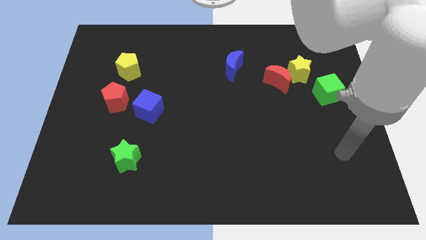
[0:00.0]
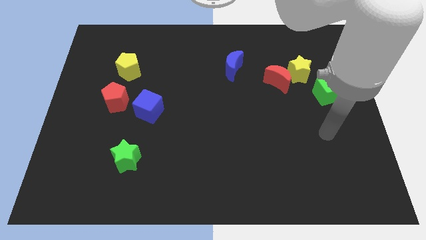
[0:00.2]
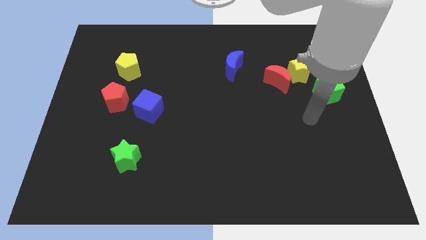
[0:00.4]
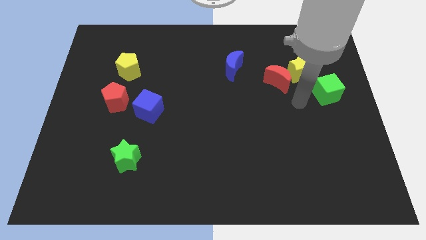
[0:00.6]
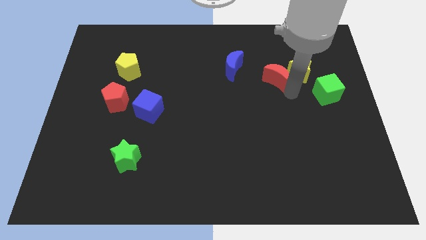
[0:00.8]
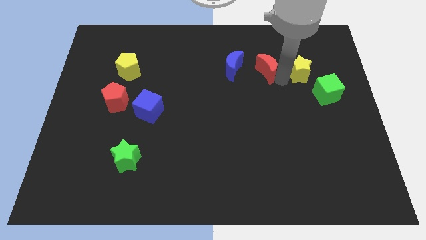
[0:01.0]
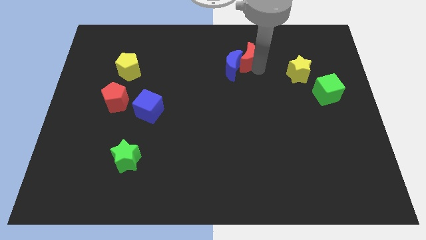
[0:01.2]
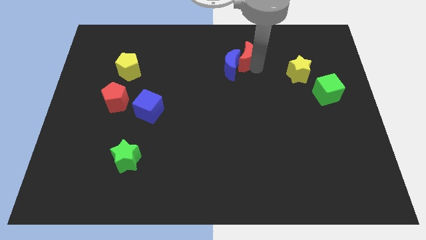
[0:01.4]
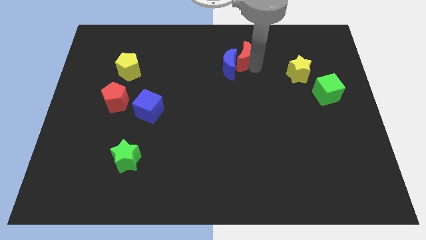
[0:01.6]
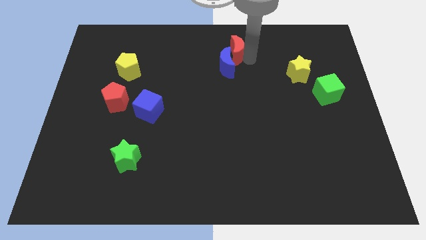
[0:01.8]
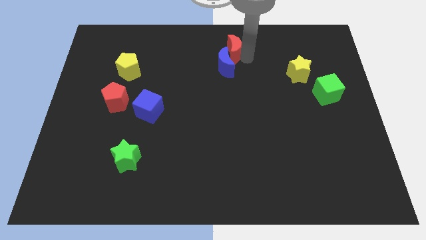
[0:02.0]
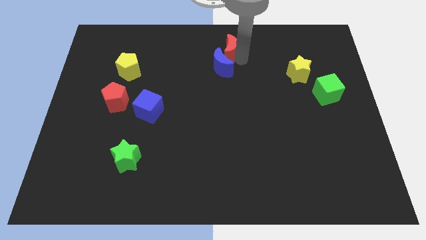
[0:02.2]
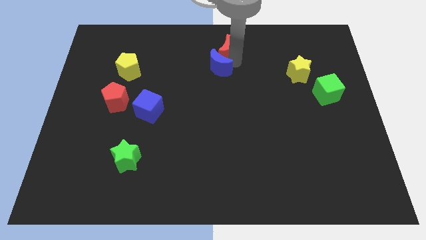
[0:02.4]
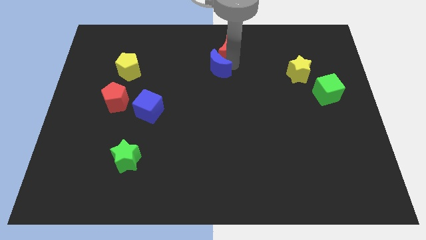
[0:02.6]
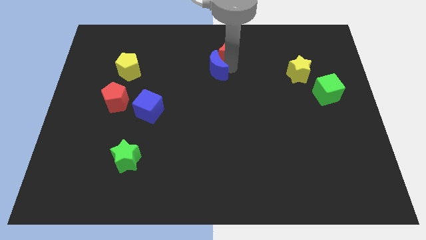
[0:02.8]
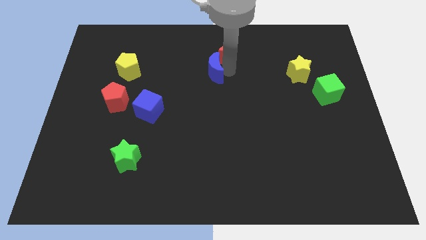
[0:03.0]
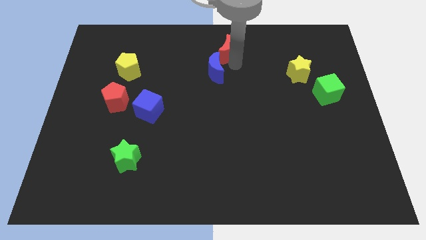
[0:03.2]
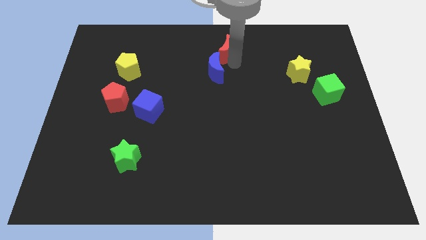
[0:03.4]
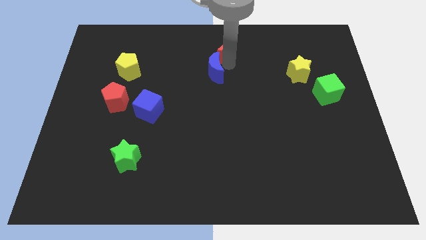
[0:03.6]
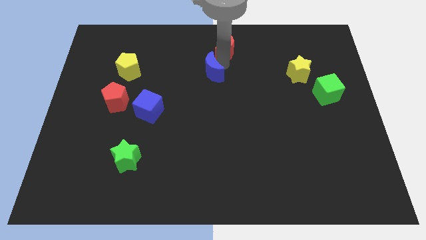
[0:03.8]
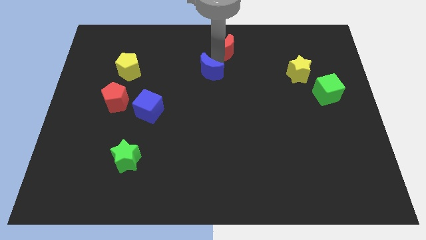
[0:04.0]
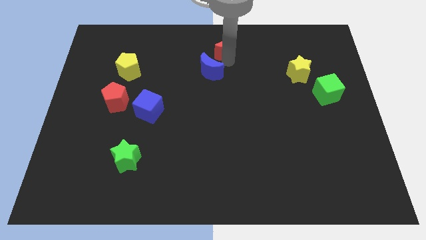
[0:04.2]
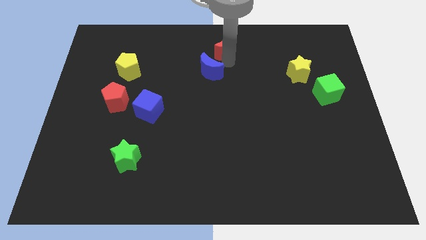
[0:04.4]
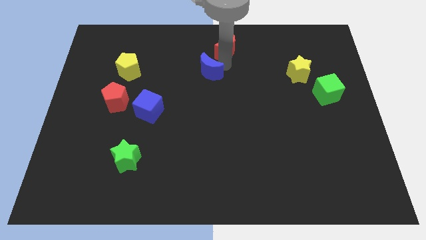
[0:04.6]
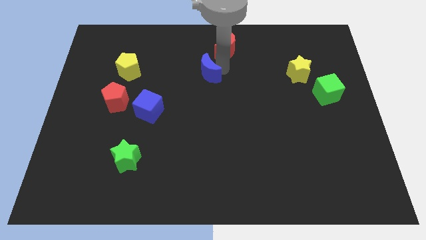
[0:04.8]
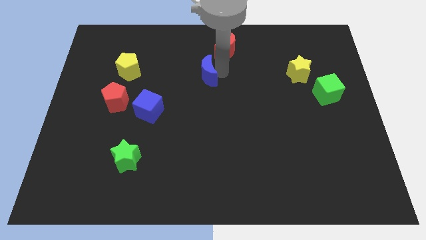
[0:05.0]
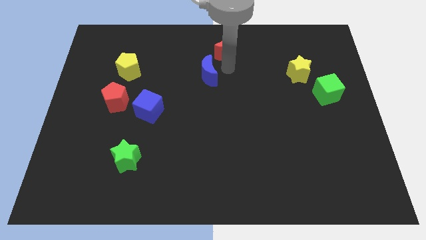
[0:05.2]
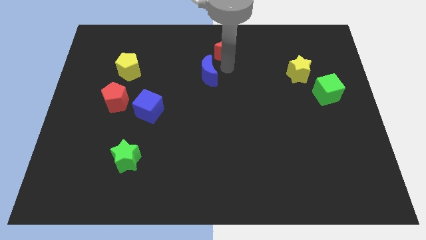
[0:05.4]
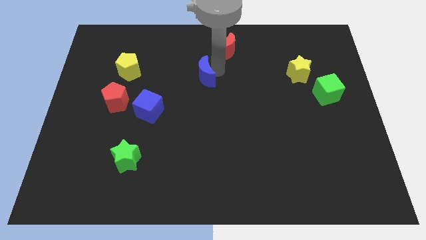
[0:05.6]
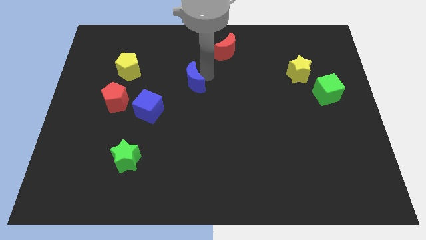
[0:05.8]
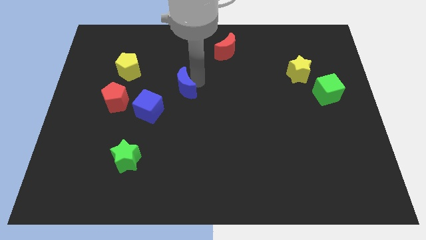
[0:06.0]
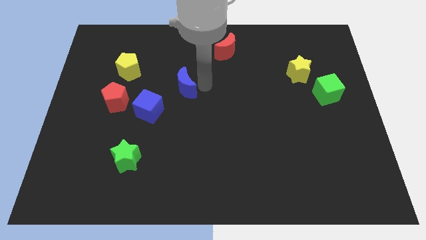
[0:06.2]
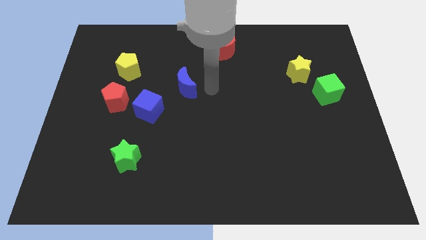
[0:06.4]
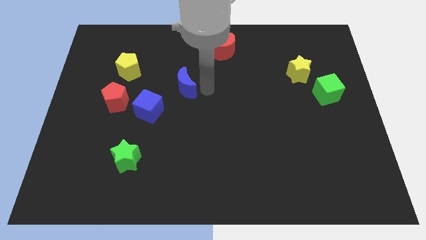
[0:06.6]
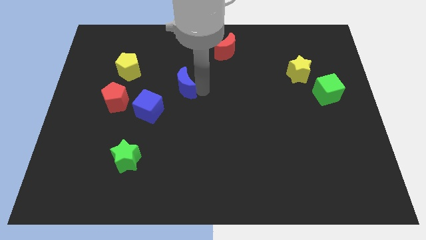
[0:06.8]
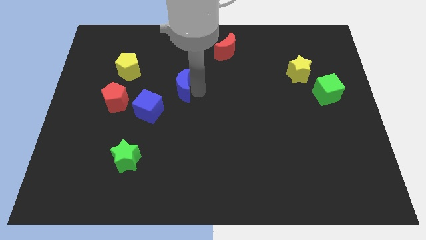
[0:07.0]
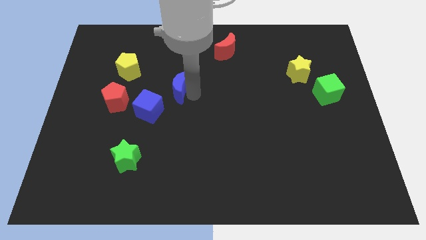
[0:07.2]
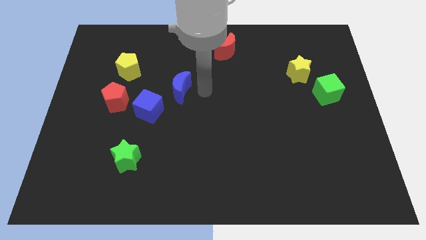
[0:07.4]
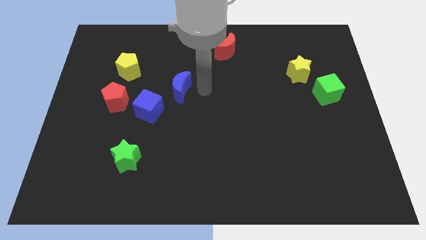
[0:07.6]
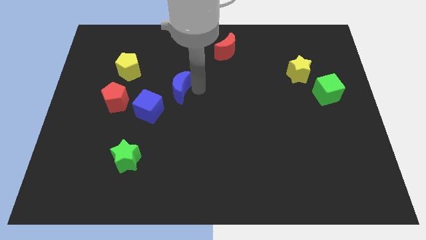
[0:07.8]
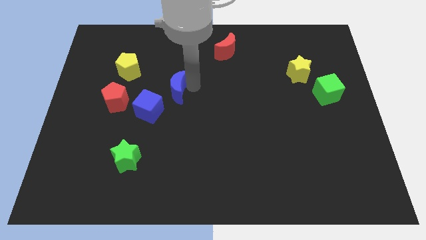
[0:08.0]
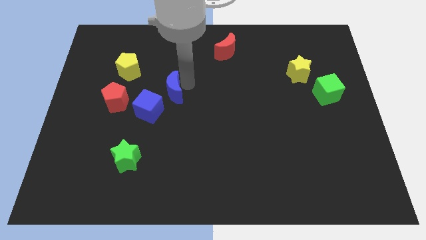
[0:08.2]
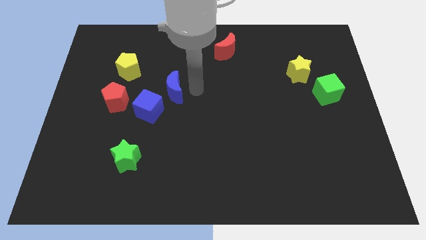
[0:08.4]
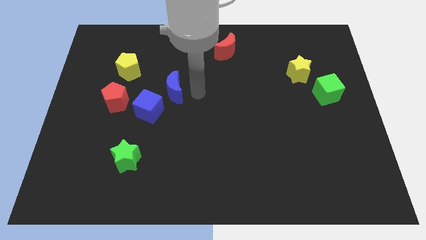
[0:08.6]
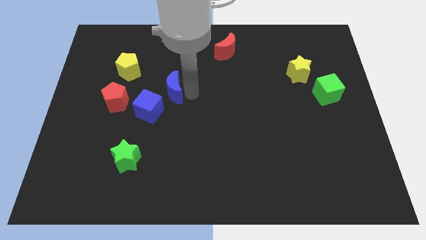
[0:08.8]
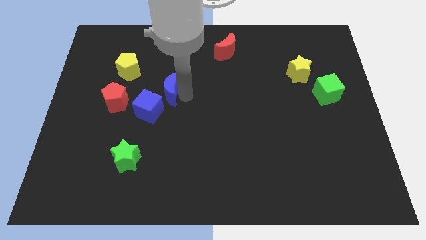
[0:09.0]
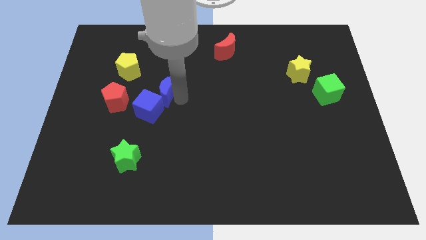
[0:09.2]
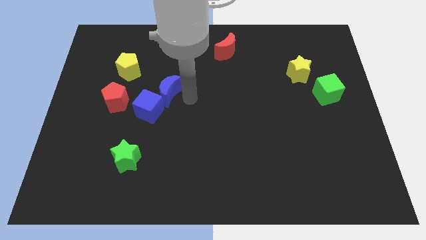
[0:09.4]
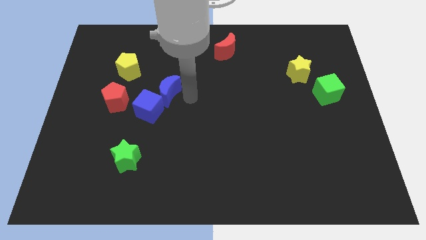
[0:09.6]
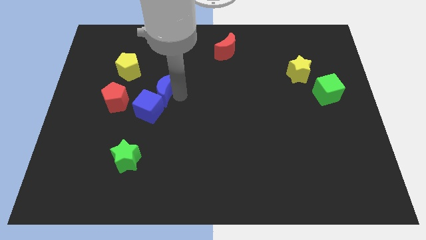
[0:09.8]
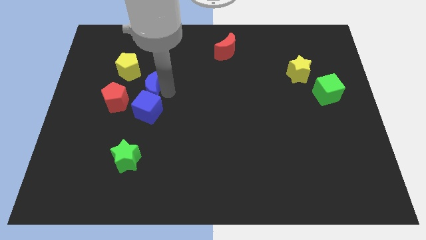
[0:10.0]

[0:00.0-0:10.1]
move the blue moon diagonally up and to the left of the blue cube

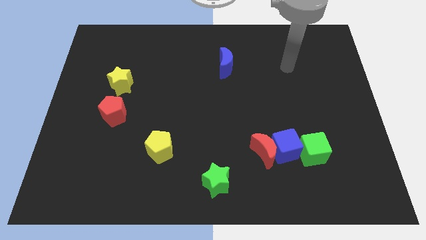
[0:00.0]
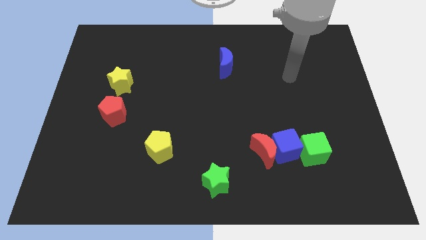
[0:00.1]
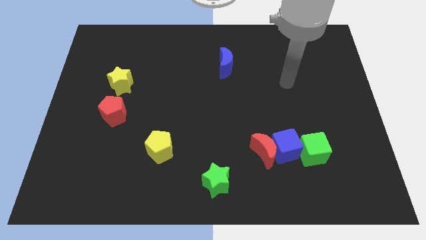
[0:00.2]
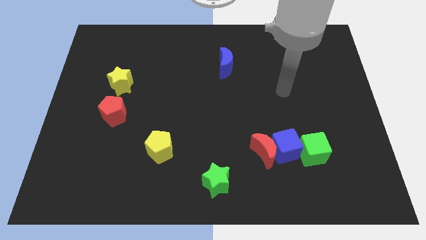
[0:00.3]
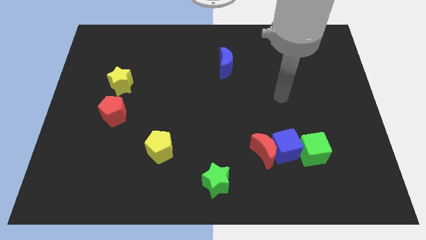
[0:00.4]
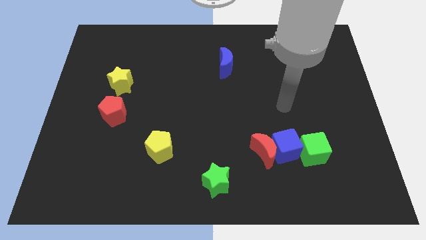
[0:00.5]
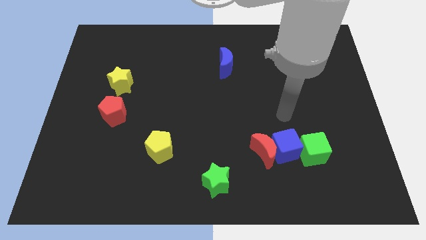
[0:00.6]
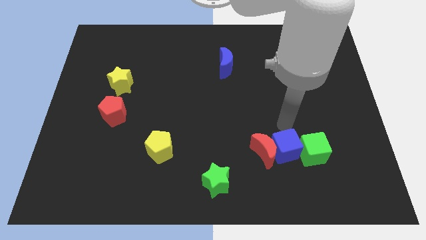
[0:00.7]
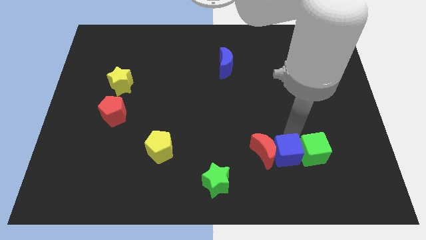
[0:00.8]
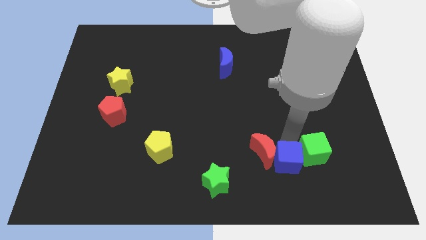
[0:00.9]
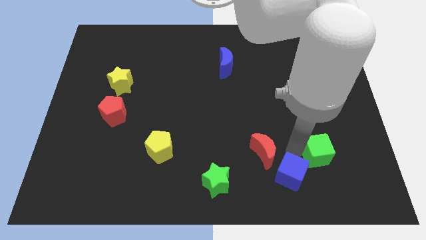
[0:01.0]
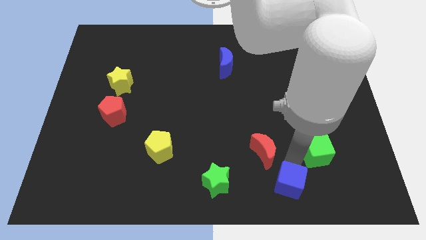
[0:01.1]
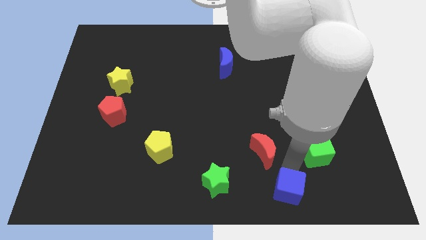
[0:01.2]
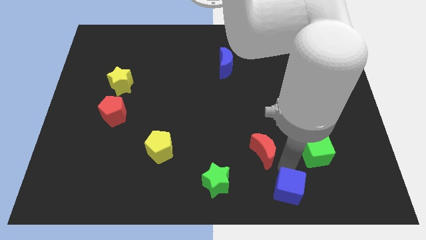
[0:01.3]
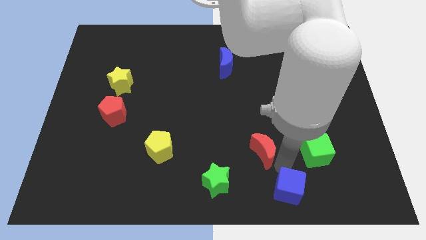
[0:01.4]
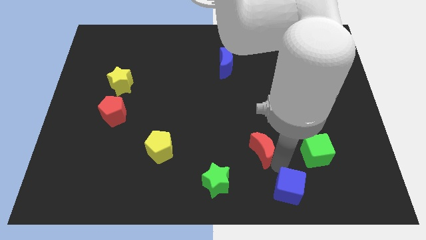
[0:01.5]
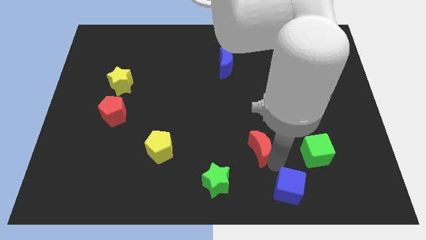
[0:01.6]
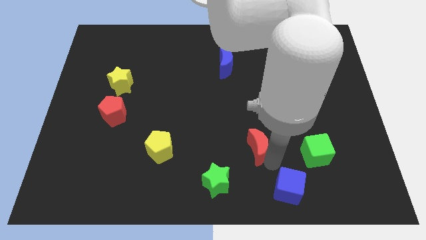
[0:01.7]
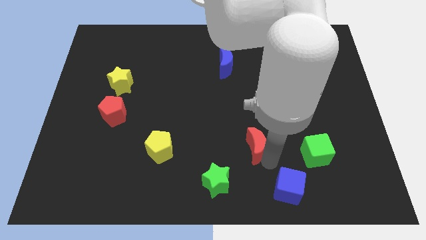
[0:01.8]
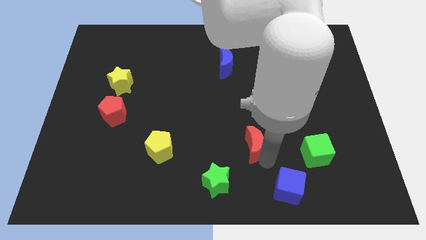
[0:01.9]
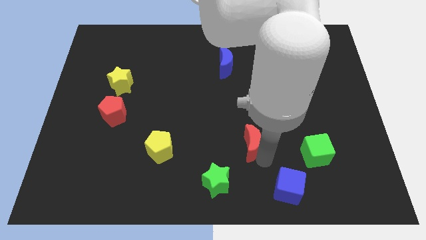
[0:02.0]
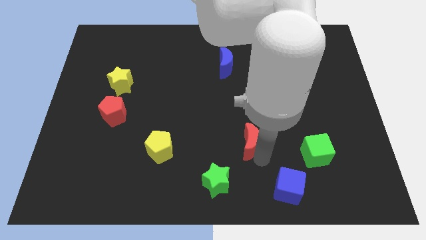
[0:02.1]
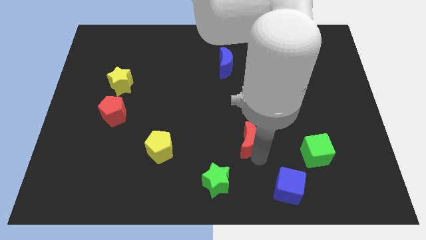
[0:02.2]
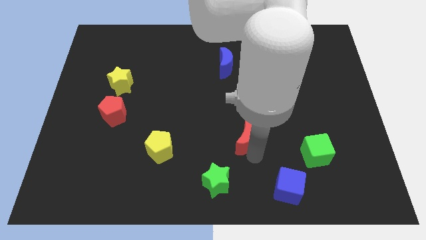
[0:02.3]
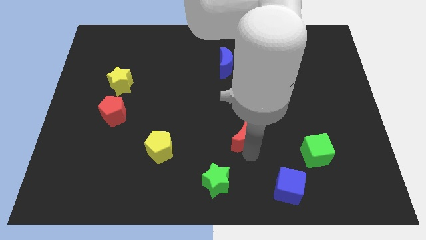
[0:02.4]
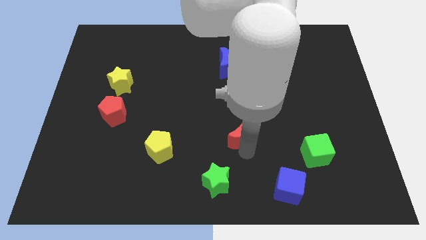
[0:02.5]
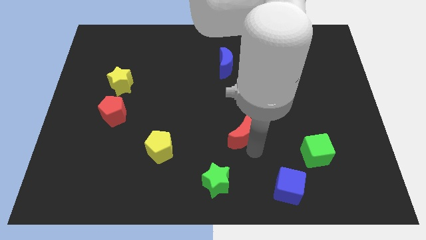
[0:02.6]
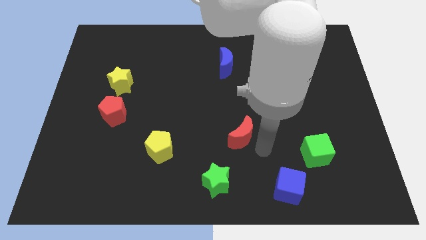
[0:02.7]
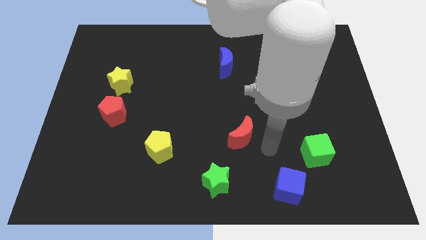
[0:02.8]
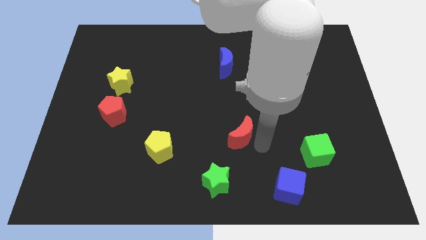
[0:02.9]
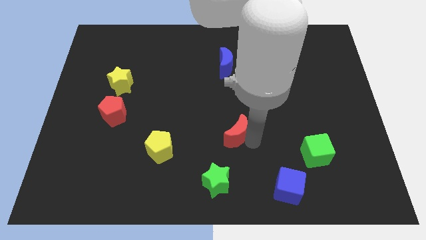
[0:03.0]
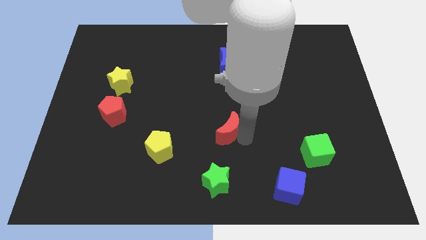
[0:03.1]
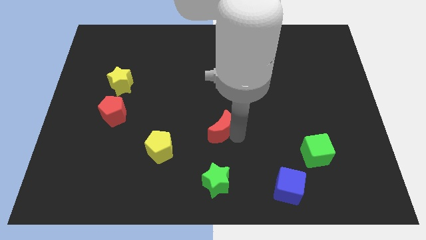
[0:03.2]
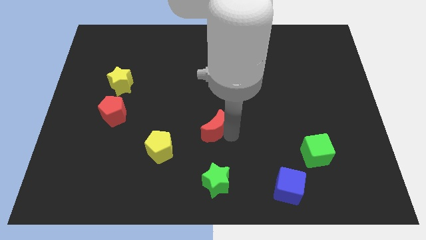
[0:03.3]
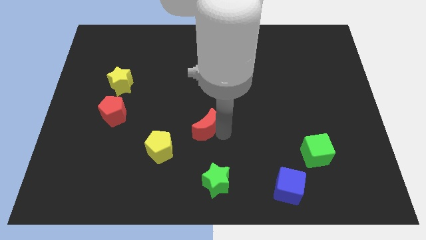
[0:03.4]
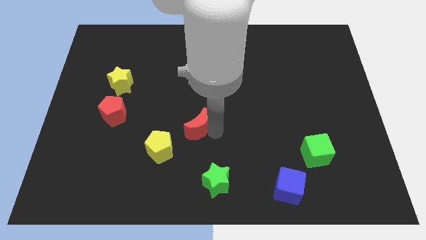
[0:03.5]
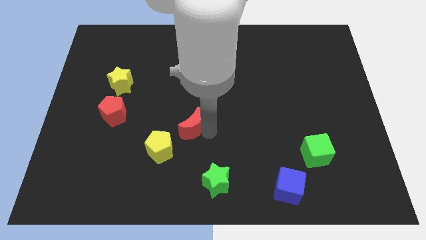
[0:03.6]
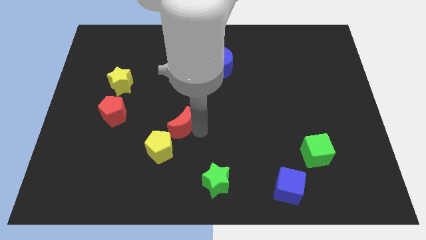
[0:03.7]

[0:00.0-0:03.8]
slide the red moon to the top side of the yellow pentagon
